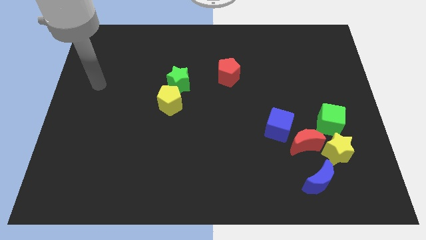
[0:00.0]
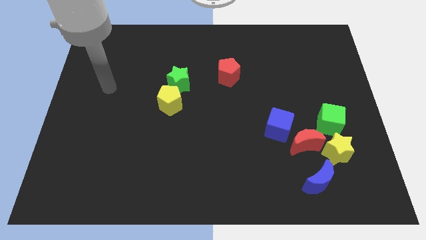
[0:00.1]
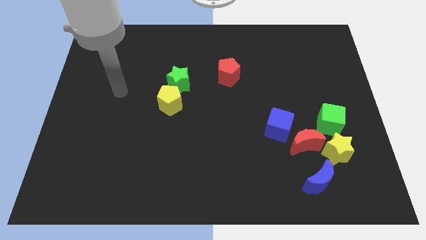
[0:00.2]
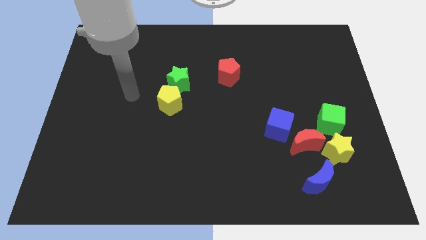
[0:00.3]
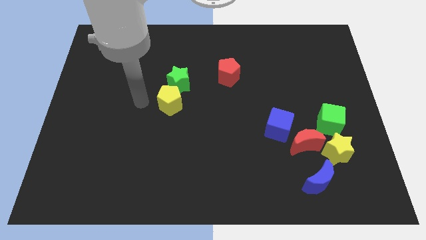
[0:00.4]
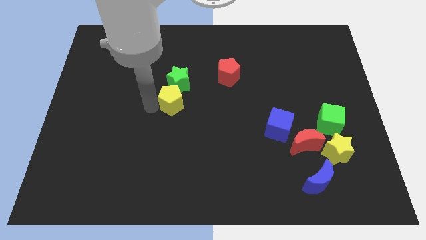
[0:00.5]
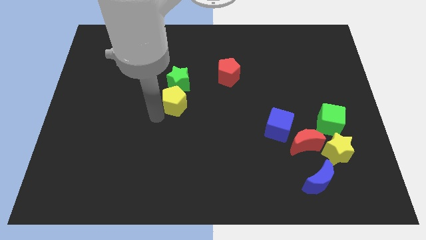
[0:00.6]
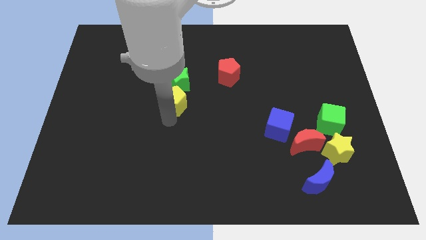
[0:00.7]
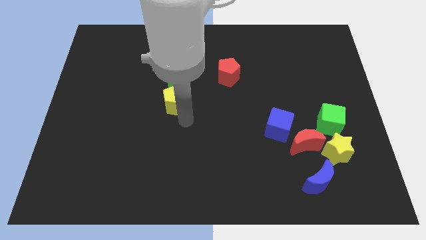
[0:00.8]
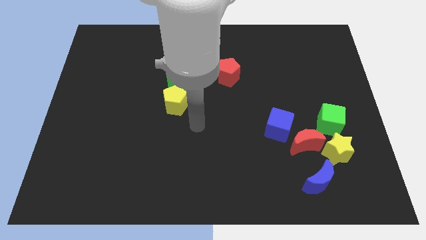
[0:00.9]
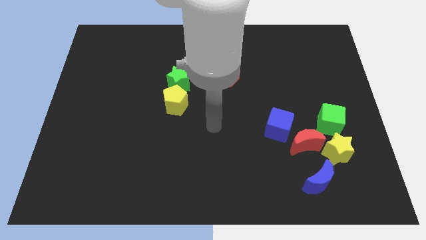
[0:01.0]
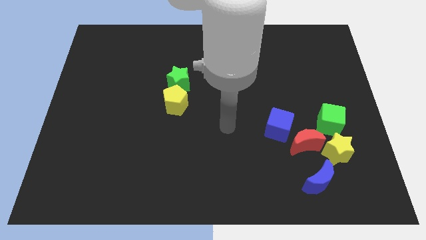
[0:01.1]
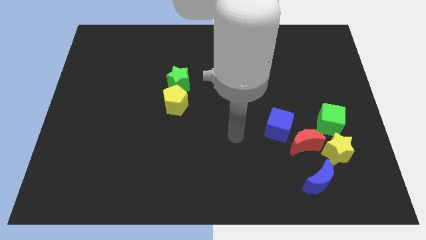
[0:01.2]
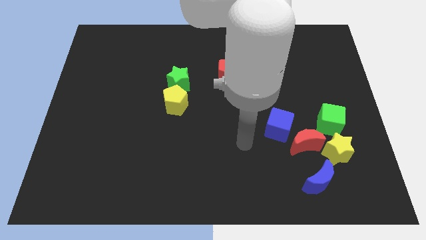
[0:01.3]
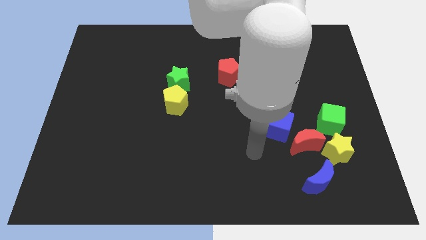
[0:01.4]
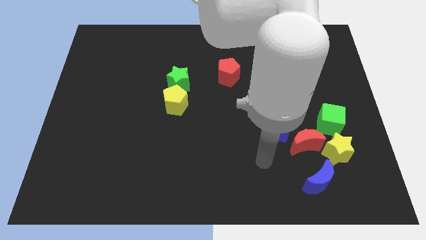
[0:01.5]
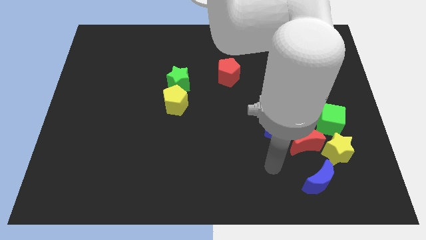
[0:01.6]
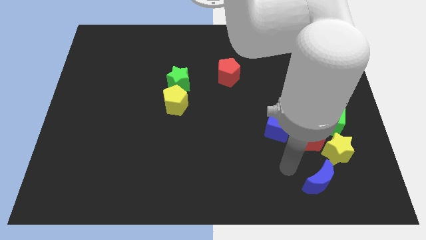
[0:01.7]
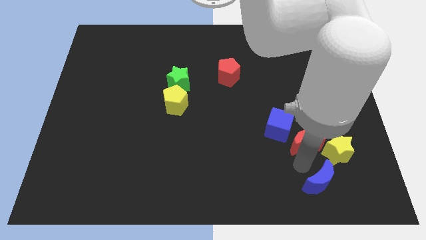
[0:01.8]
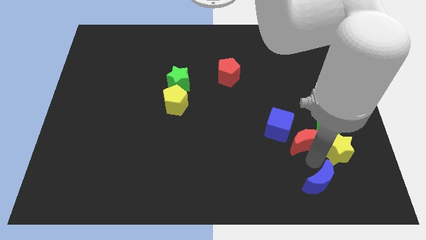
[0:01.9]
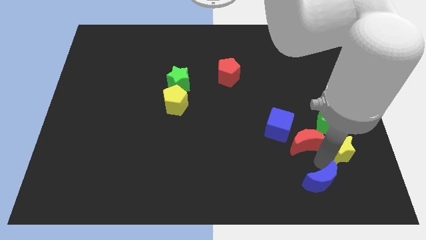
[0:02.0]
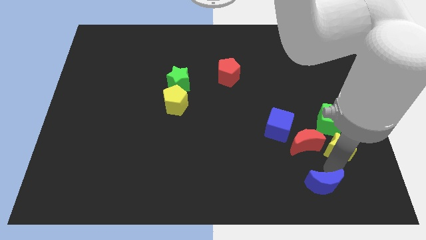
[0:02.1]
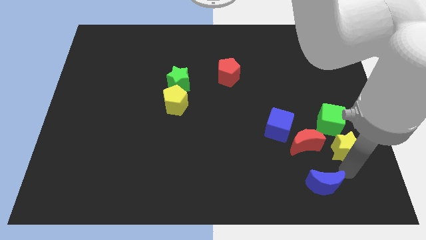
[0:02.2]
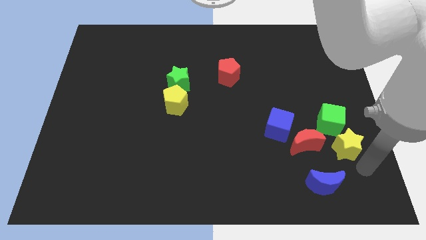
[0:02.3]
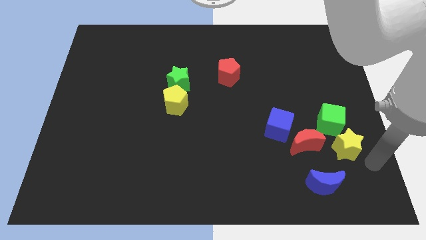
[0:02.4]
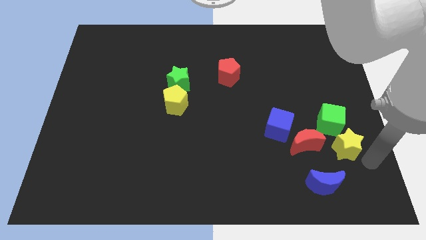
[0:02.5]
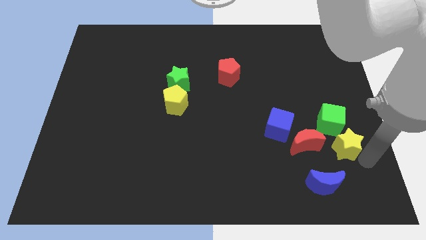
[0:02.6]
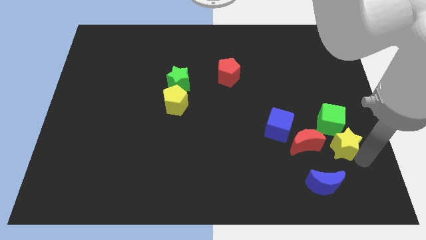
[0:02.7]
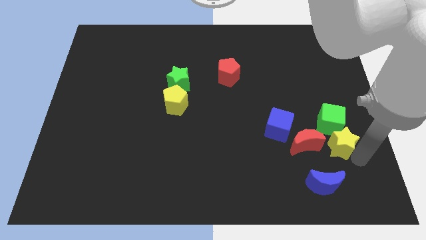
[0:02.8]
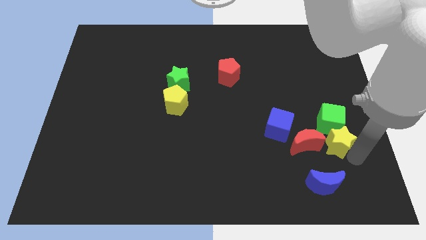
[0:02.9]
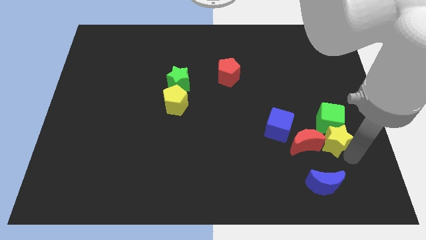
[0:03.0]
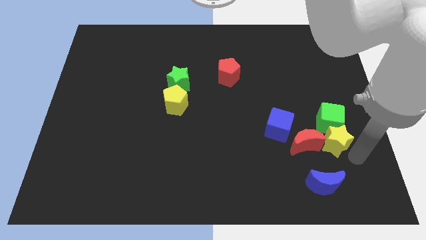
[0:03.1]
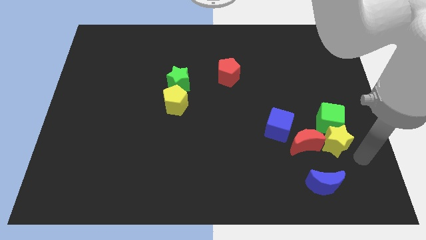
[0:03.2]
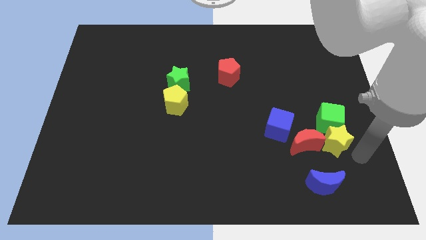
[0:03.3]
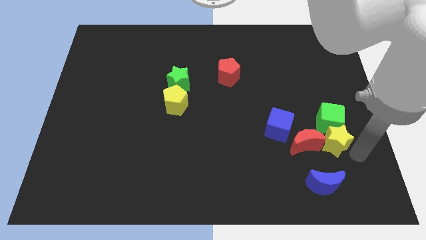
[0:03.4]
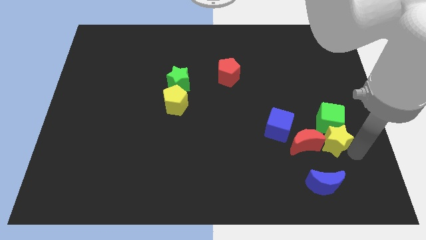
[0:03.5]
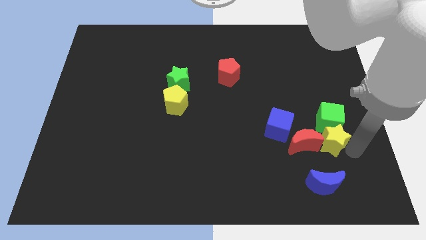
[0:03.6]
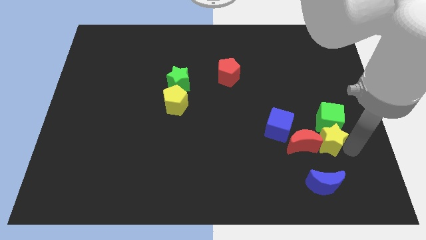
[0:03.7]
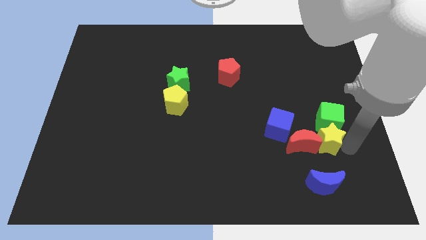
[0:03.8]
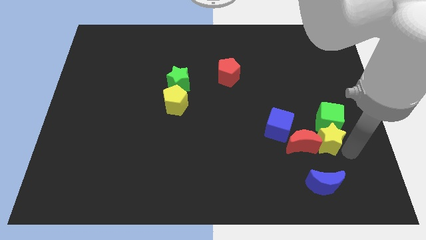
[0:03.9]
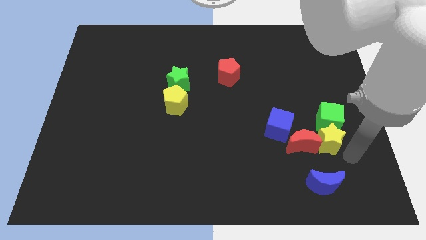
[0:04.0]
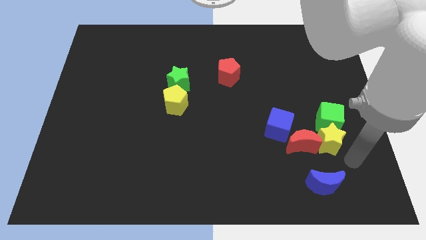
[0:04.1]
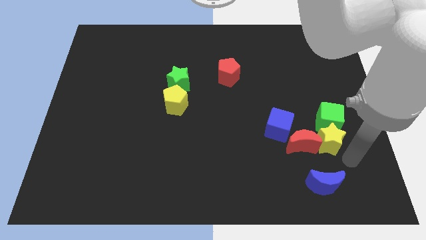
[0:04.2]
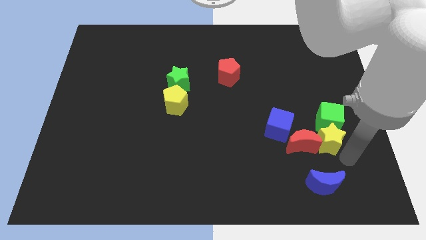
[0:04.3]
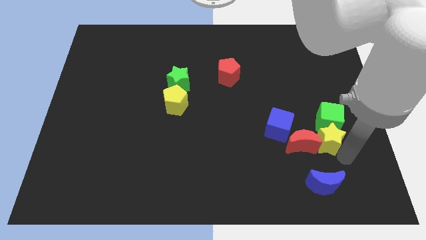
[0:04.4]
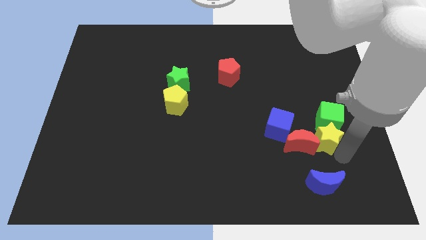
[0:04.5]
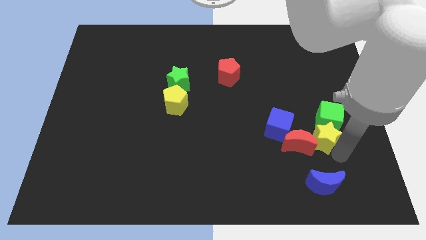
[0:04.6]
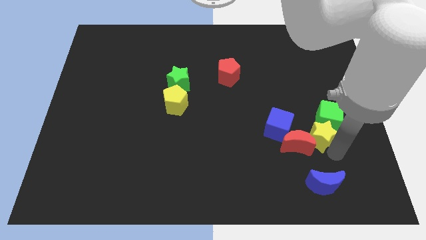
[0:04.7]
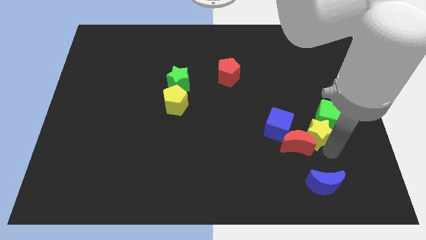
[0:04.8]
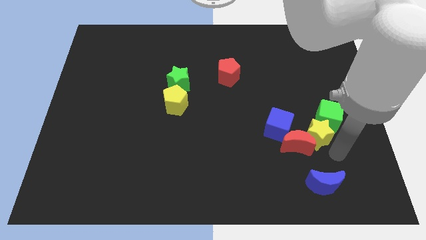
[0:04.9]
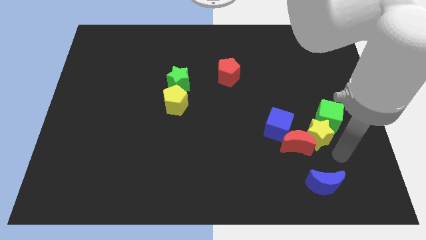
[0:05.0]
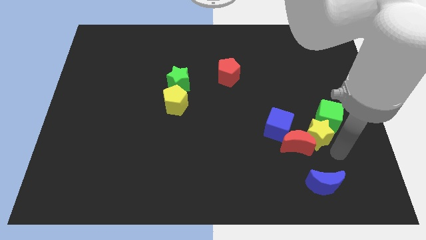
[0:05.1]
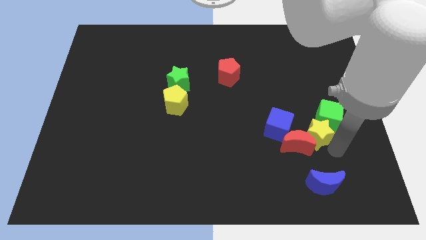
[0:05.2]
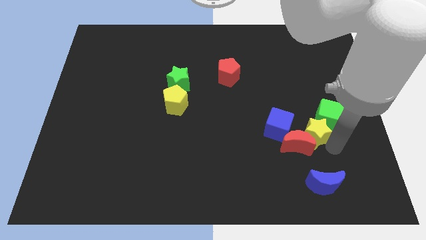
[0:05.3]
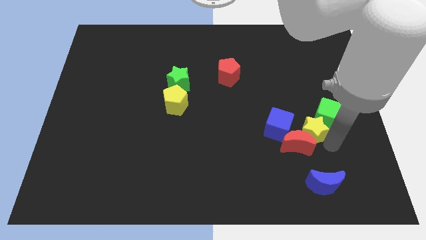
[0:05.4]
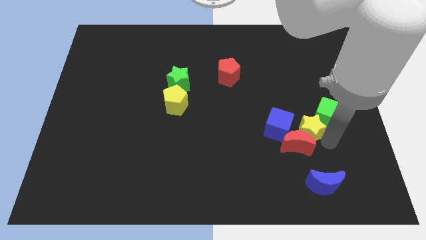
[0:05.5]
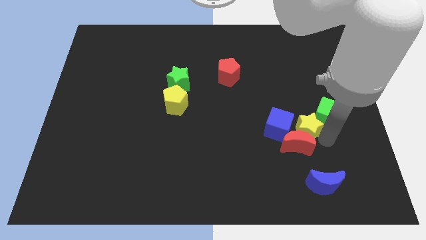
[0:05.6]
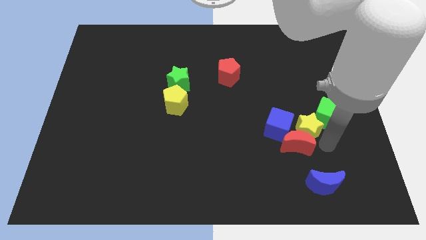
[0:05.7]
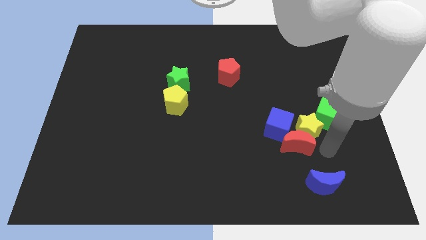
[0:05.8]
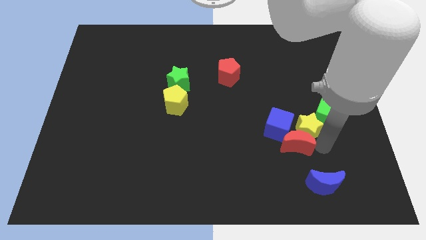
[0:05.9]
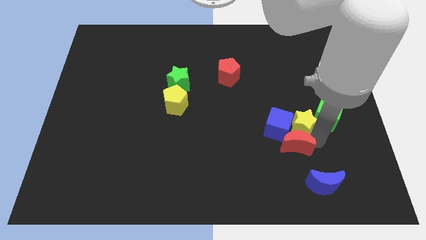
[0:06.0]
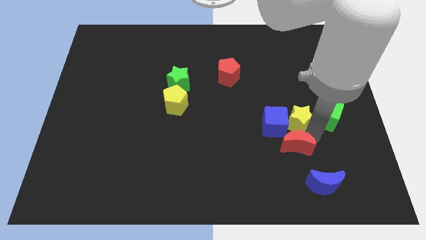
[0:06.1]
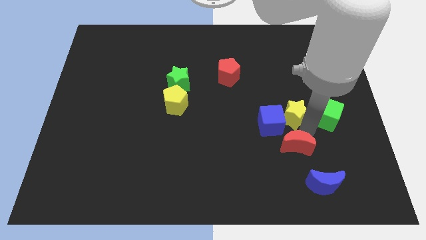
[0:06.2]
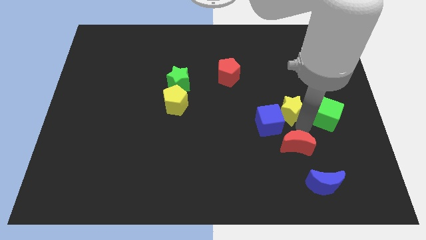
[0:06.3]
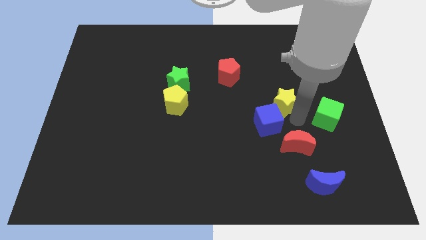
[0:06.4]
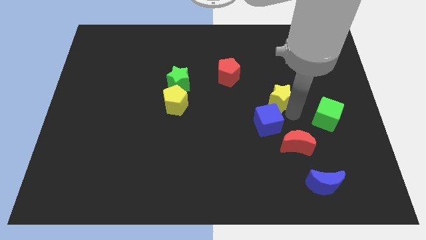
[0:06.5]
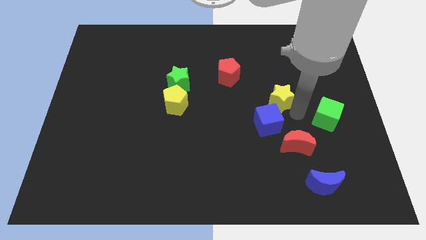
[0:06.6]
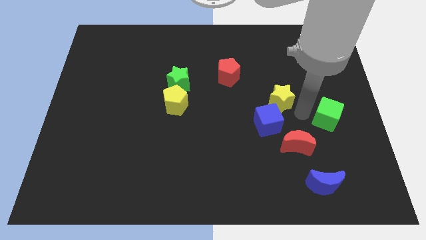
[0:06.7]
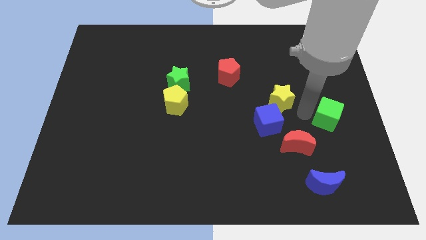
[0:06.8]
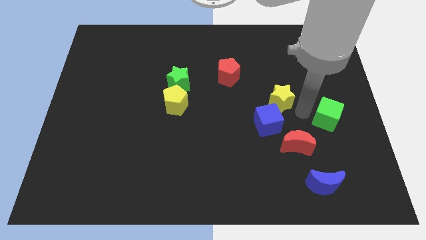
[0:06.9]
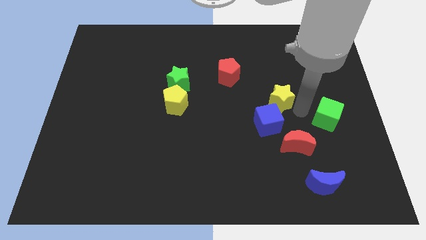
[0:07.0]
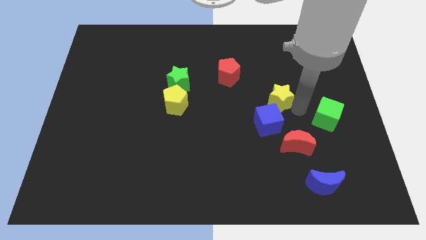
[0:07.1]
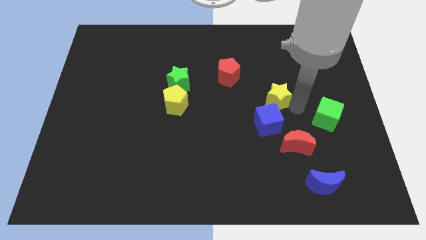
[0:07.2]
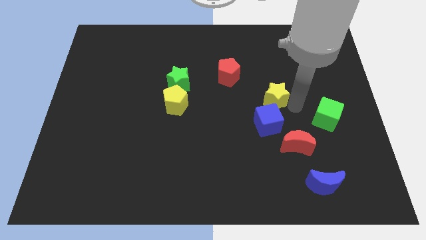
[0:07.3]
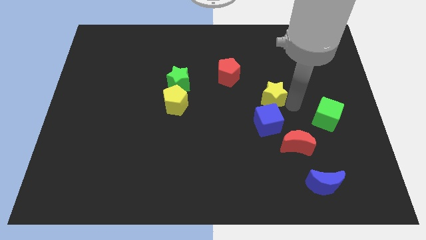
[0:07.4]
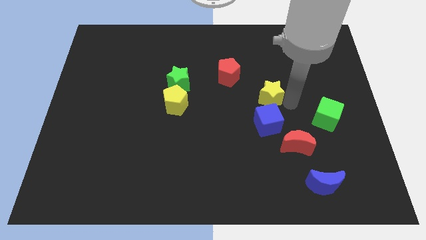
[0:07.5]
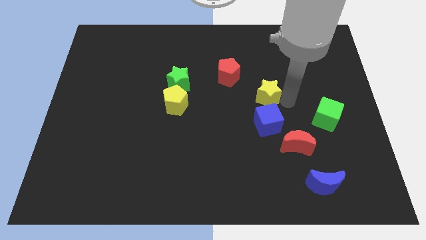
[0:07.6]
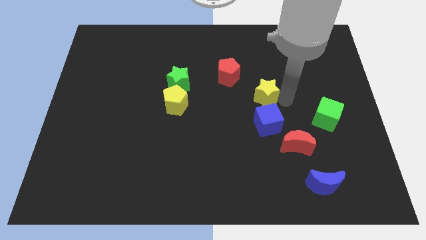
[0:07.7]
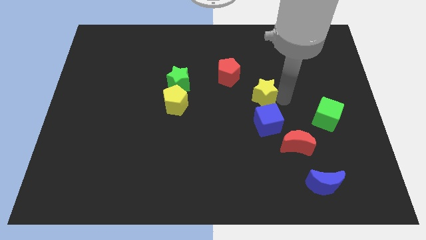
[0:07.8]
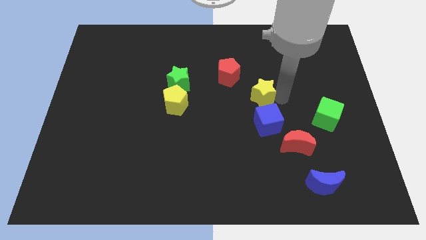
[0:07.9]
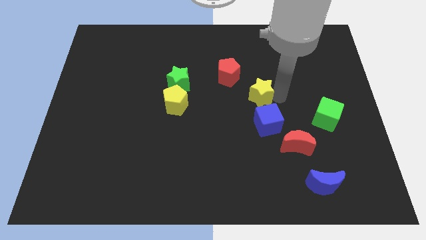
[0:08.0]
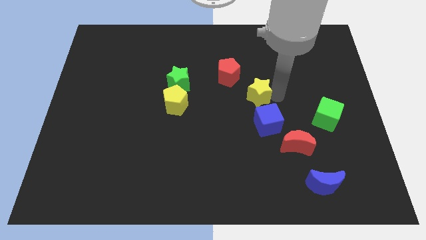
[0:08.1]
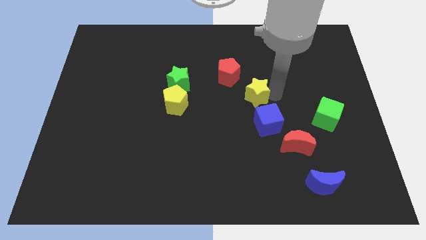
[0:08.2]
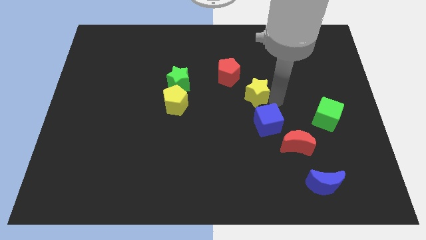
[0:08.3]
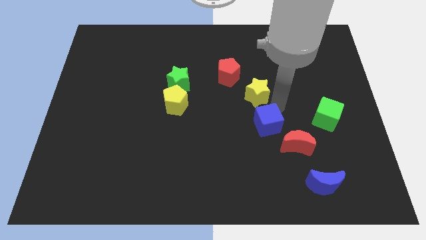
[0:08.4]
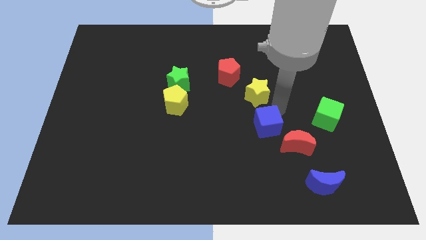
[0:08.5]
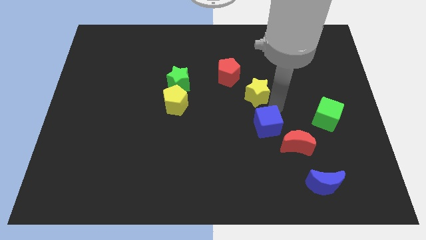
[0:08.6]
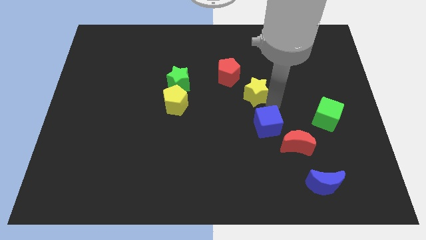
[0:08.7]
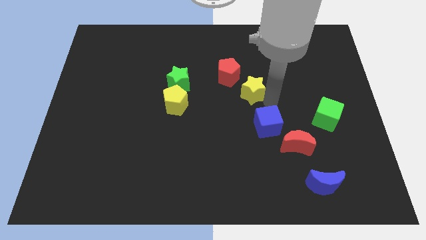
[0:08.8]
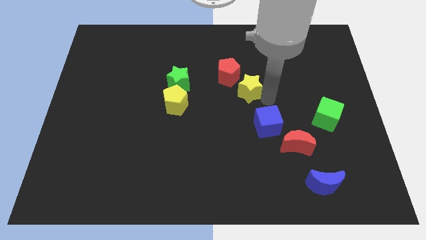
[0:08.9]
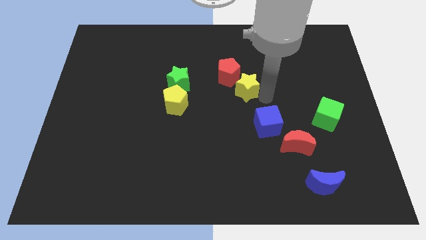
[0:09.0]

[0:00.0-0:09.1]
push the yellow star towards the red pentagon
